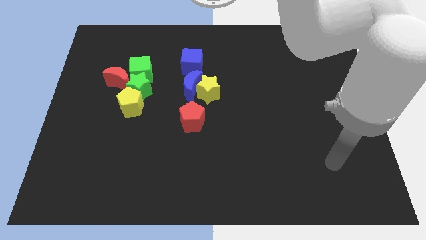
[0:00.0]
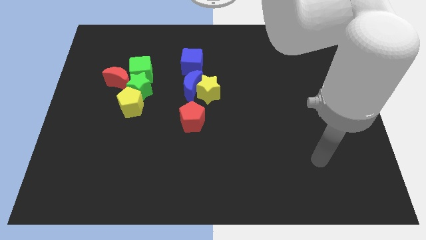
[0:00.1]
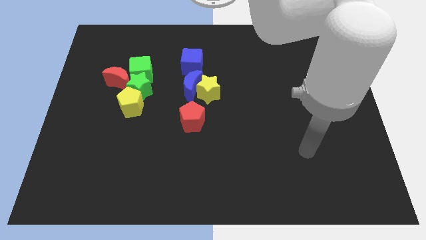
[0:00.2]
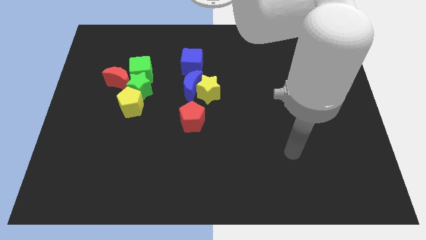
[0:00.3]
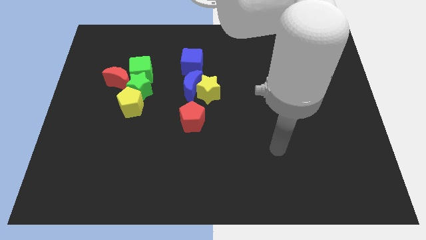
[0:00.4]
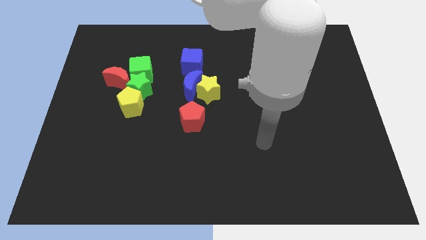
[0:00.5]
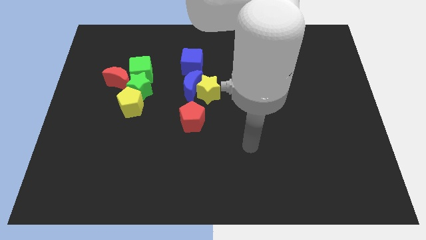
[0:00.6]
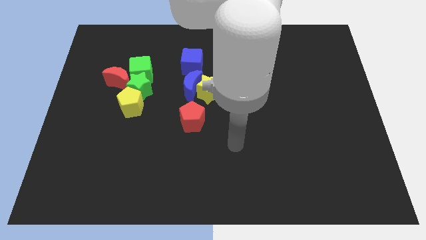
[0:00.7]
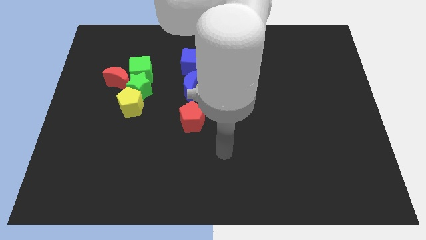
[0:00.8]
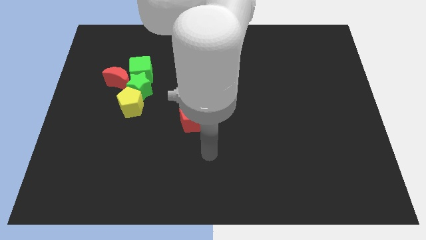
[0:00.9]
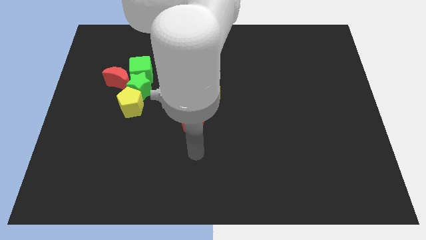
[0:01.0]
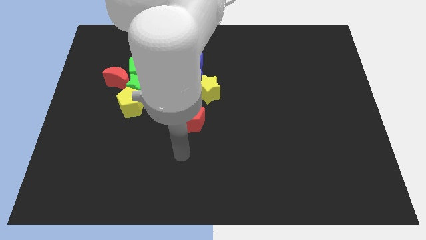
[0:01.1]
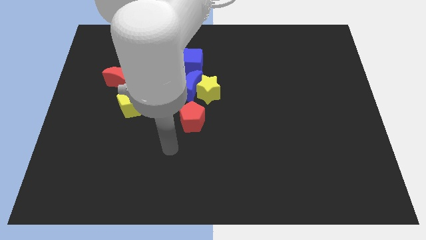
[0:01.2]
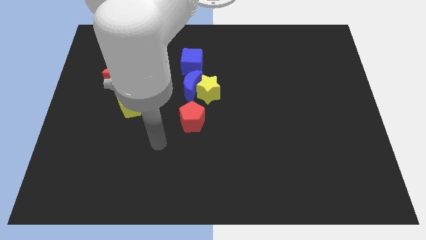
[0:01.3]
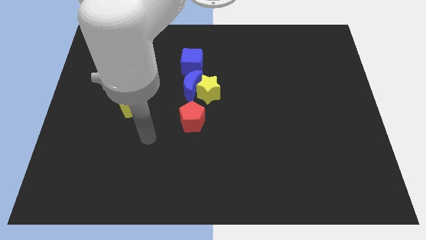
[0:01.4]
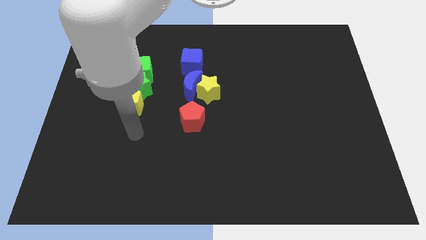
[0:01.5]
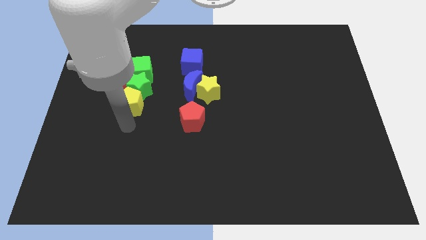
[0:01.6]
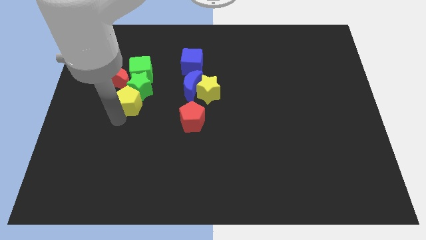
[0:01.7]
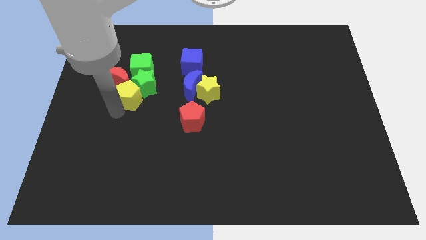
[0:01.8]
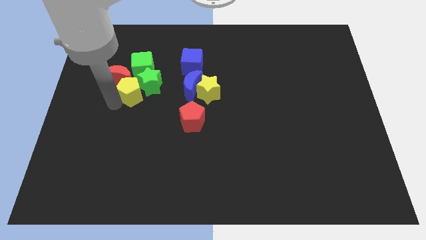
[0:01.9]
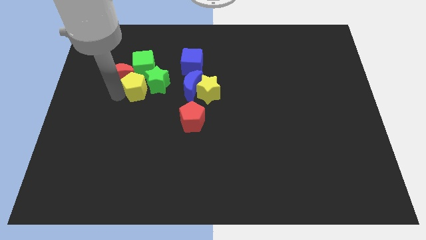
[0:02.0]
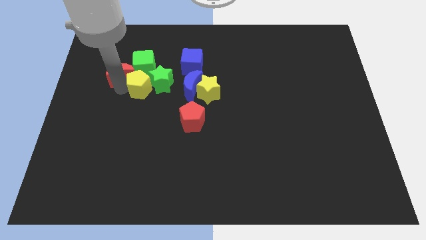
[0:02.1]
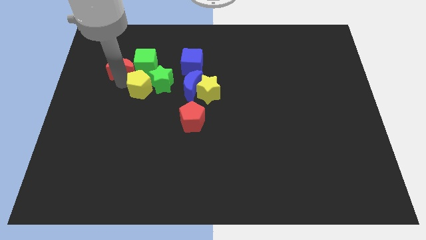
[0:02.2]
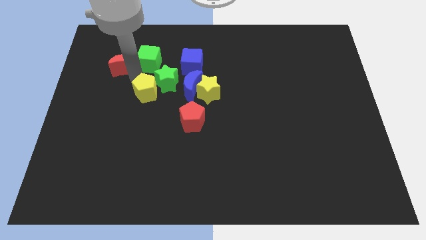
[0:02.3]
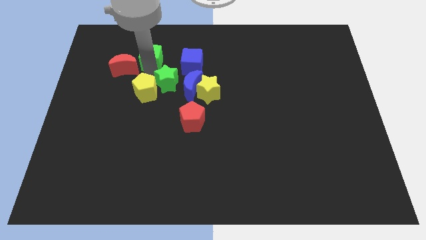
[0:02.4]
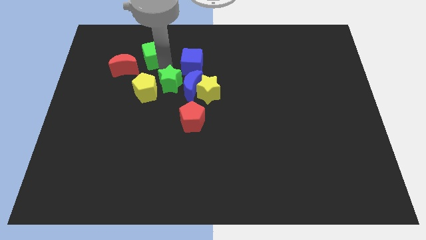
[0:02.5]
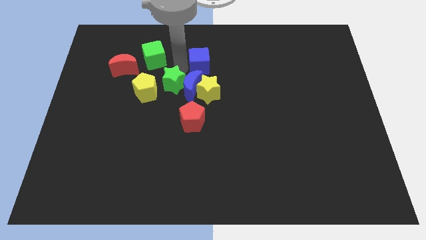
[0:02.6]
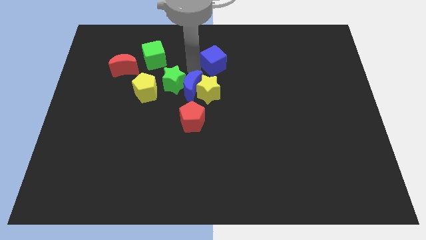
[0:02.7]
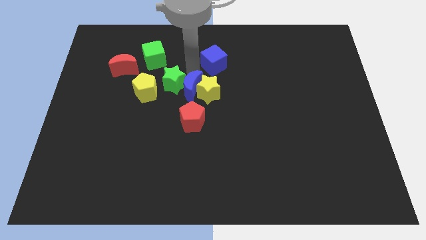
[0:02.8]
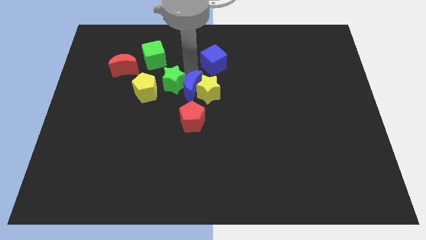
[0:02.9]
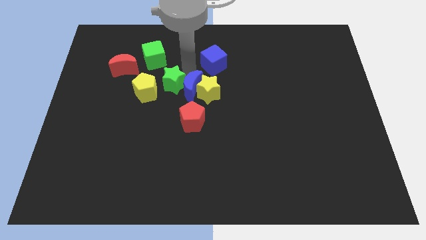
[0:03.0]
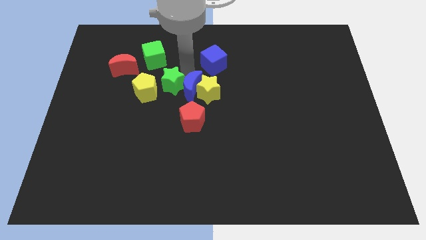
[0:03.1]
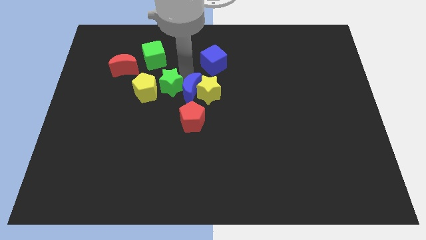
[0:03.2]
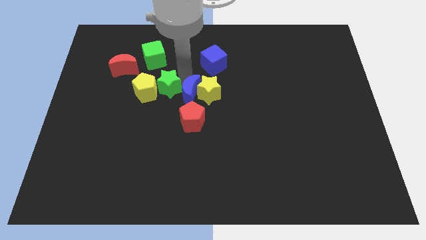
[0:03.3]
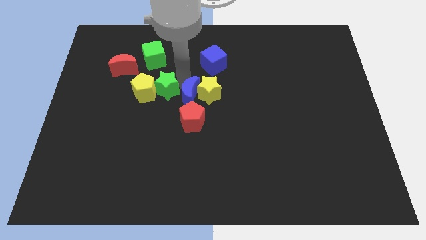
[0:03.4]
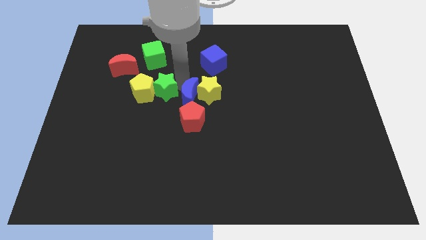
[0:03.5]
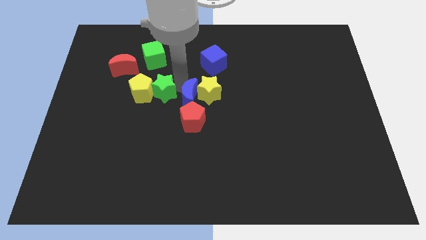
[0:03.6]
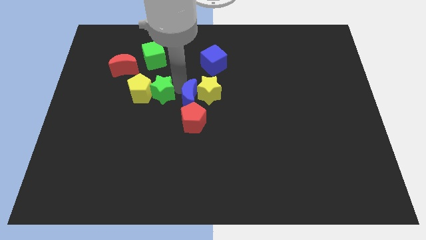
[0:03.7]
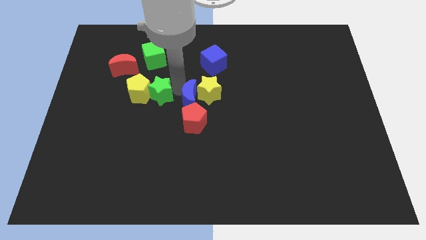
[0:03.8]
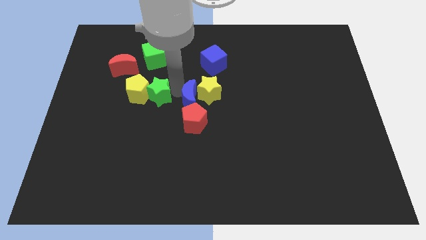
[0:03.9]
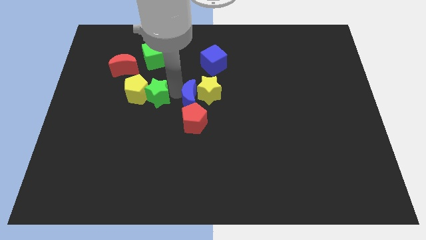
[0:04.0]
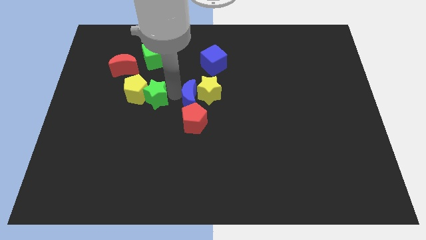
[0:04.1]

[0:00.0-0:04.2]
pull the green star apart from the clump

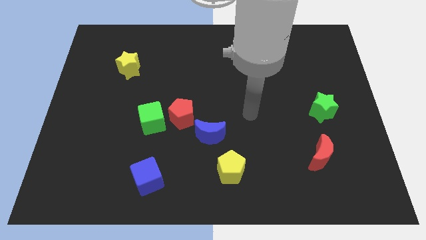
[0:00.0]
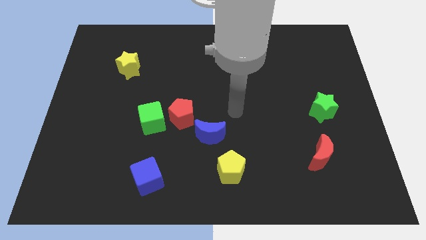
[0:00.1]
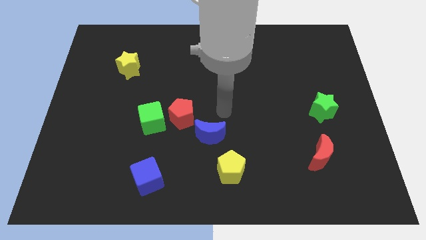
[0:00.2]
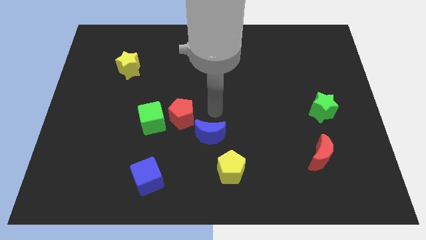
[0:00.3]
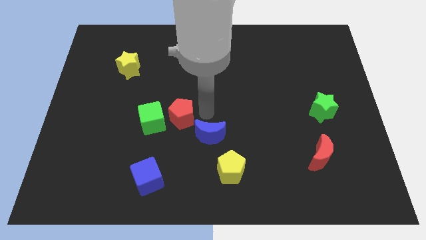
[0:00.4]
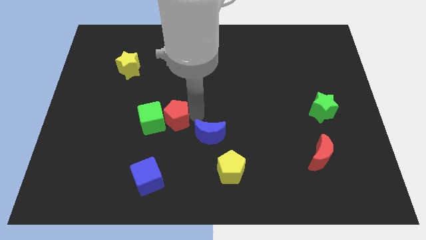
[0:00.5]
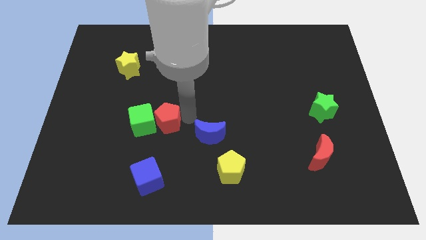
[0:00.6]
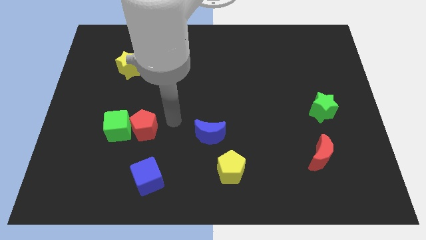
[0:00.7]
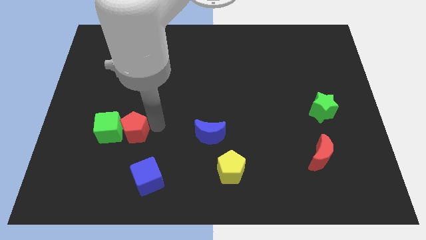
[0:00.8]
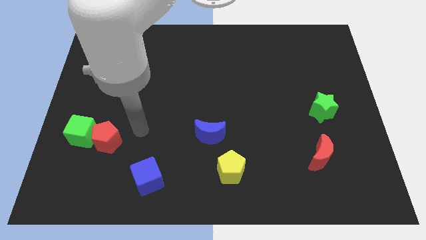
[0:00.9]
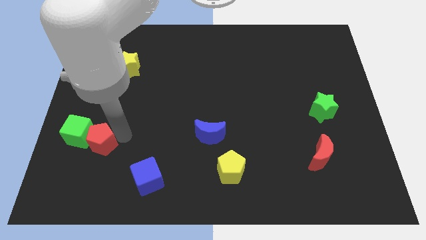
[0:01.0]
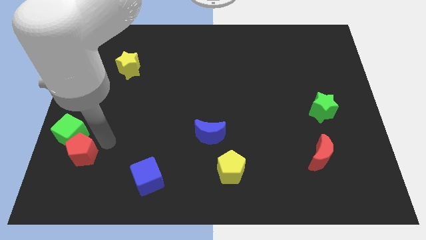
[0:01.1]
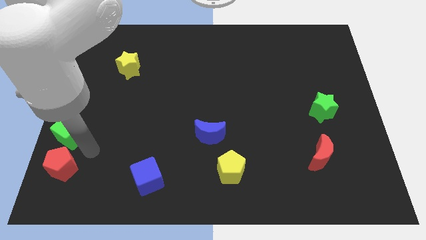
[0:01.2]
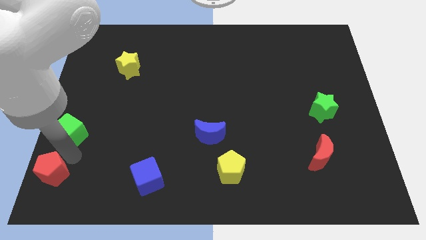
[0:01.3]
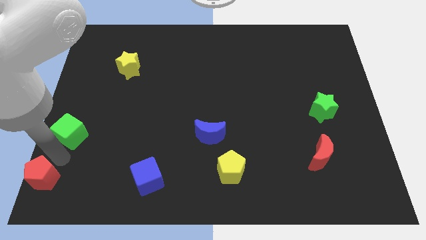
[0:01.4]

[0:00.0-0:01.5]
pull the green cube apart from the red pentagon

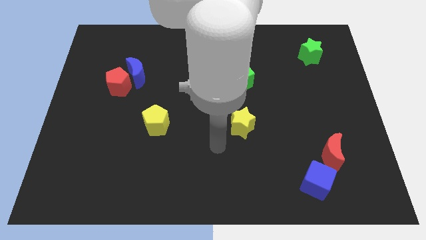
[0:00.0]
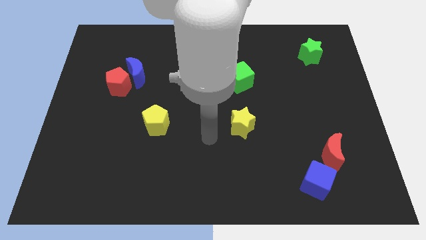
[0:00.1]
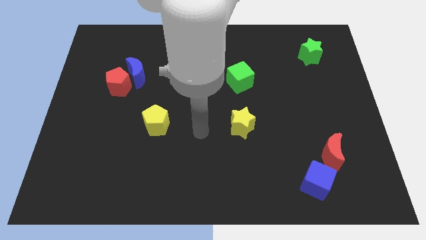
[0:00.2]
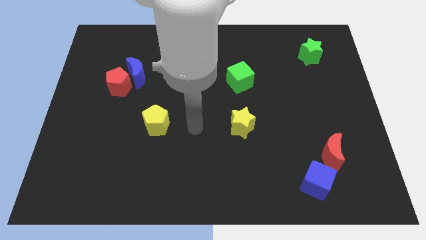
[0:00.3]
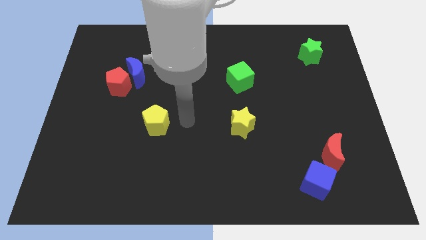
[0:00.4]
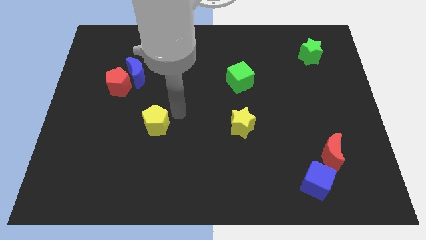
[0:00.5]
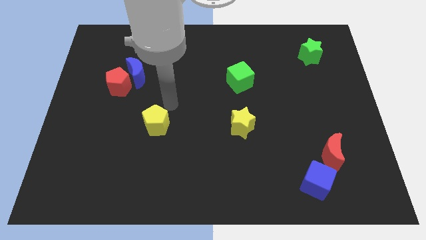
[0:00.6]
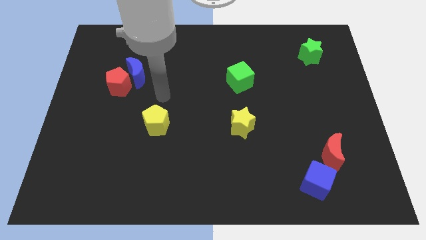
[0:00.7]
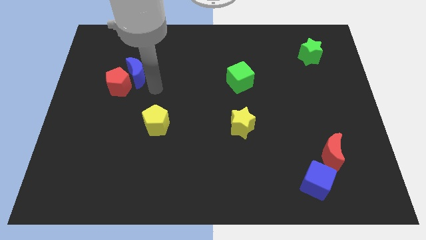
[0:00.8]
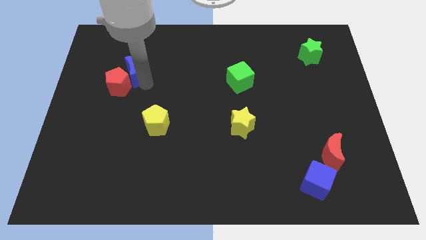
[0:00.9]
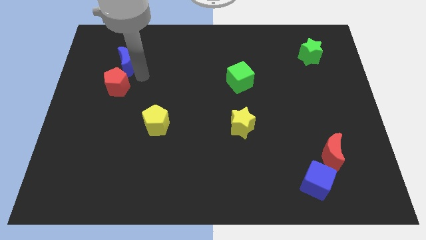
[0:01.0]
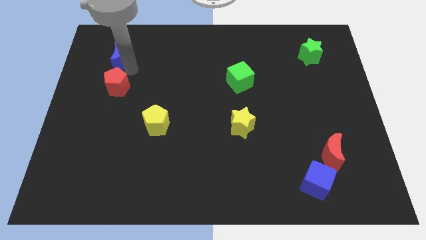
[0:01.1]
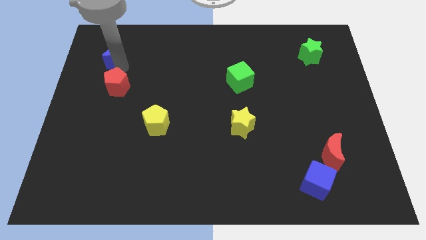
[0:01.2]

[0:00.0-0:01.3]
move the red pentagon away from the blue moon

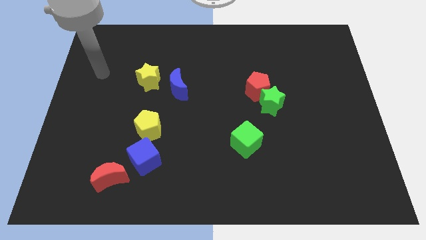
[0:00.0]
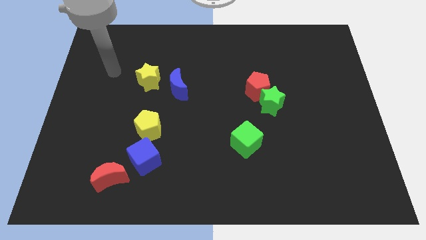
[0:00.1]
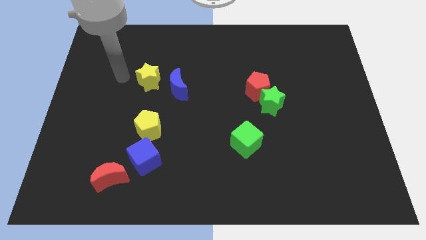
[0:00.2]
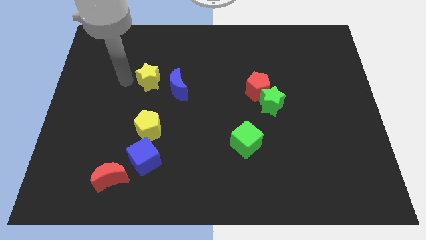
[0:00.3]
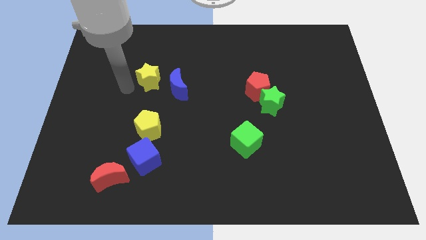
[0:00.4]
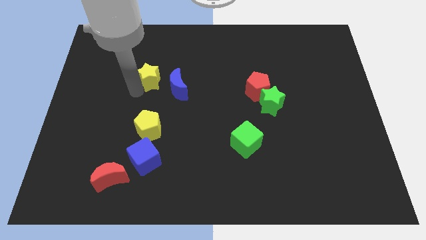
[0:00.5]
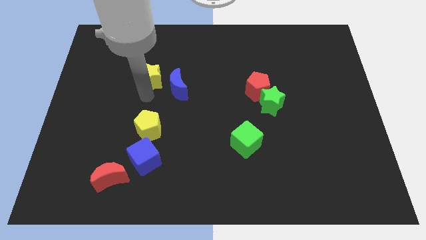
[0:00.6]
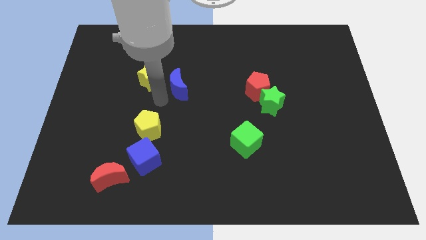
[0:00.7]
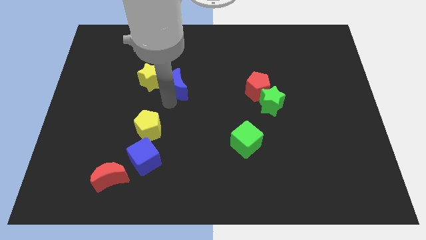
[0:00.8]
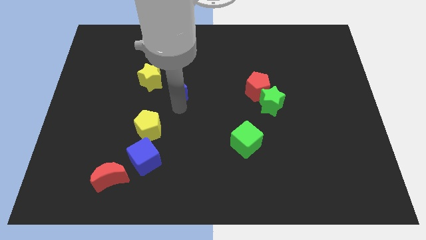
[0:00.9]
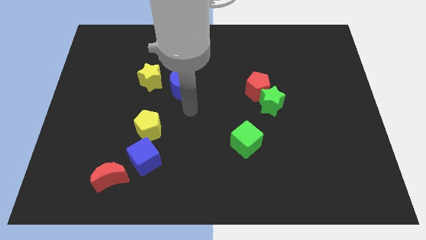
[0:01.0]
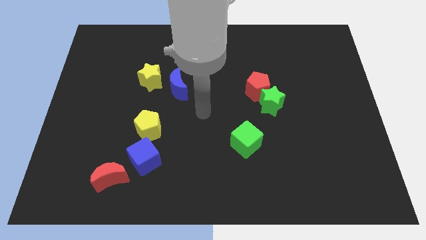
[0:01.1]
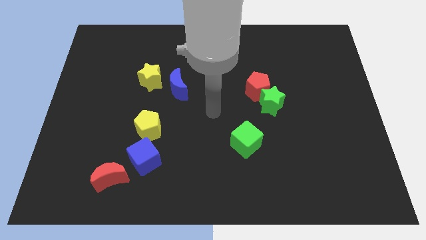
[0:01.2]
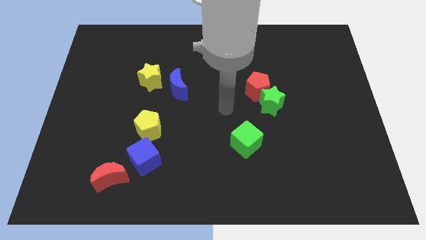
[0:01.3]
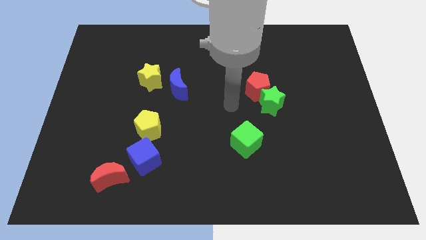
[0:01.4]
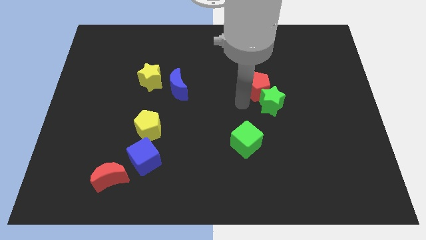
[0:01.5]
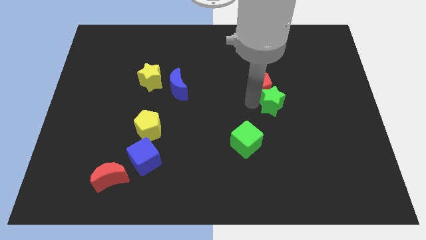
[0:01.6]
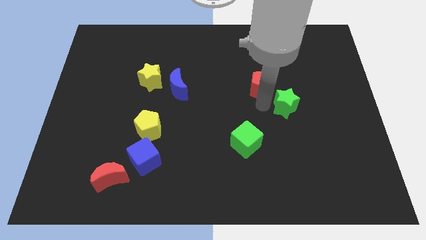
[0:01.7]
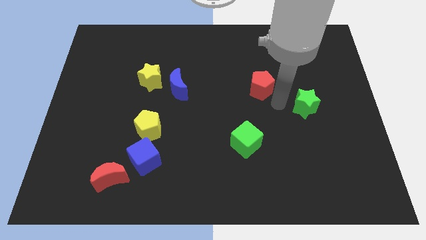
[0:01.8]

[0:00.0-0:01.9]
pull the red pentagon apart from the green star

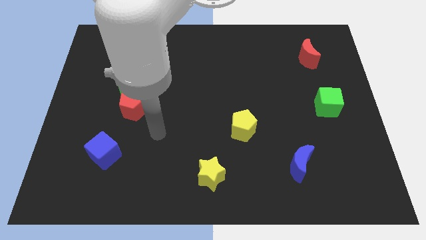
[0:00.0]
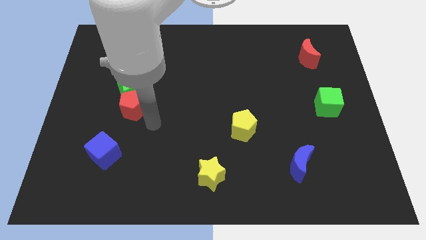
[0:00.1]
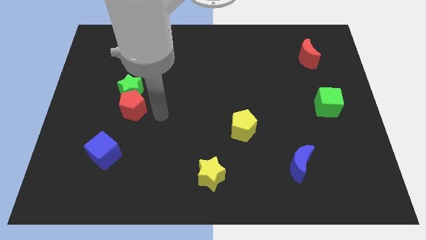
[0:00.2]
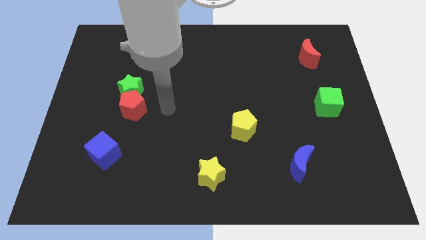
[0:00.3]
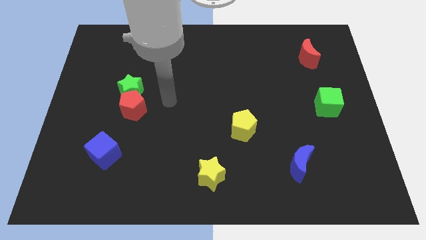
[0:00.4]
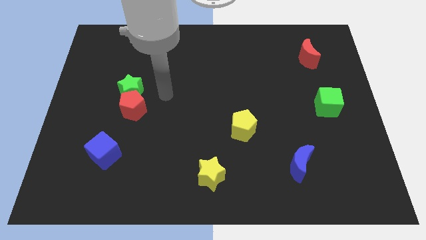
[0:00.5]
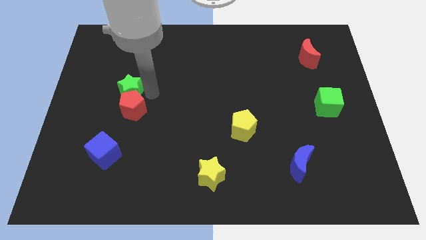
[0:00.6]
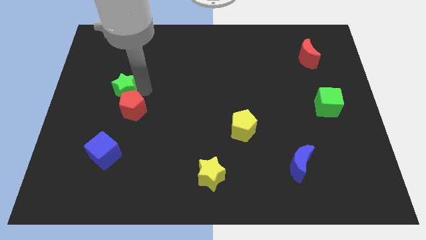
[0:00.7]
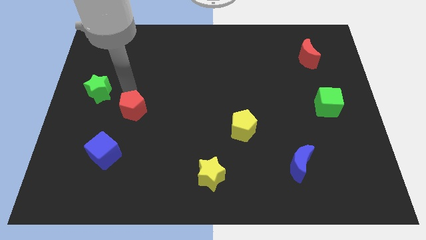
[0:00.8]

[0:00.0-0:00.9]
separate the red pentagon from the green star
